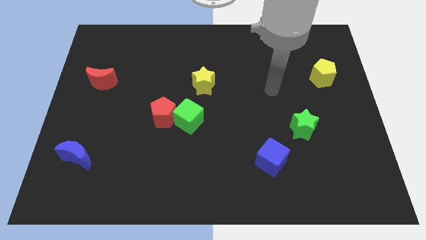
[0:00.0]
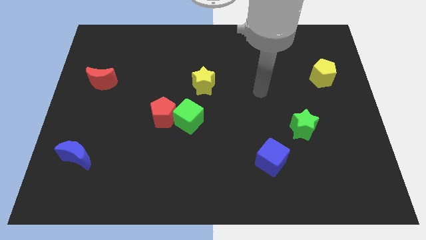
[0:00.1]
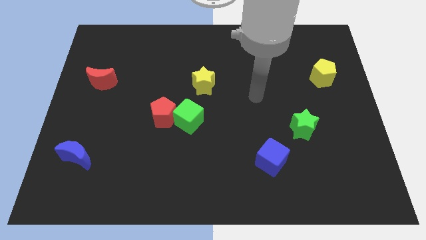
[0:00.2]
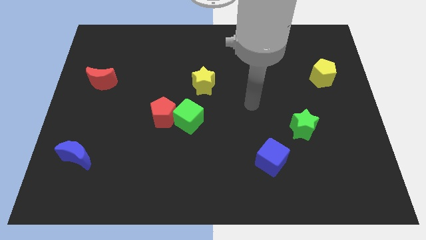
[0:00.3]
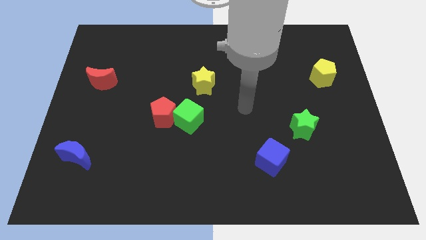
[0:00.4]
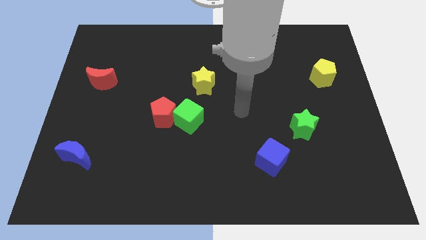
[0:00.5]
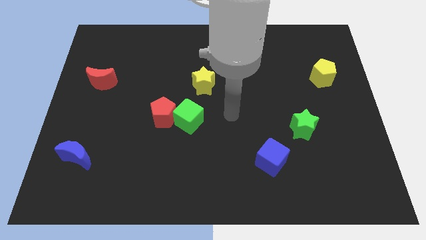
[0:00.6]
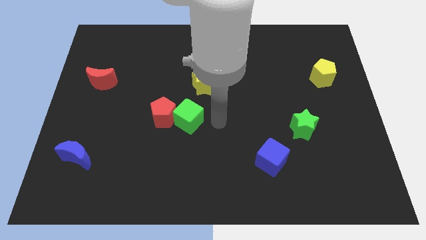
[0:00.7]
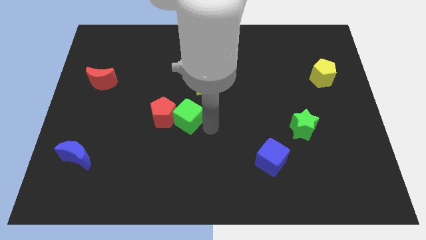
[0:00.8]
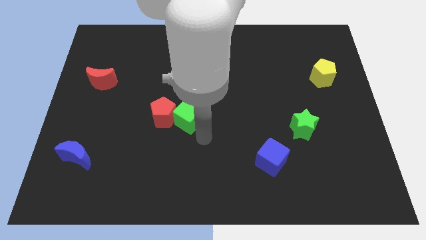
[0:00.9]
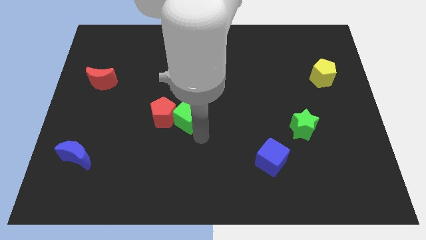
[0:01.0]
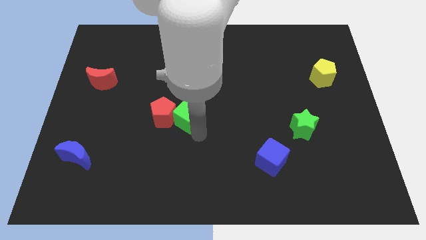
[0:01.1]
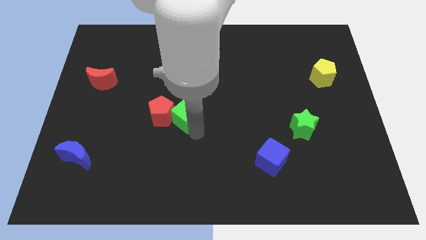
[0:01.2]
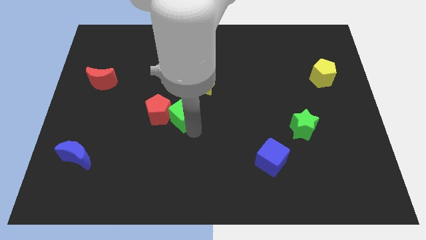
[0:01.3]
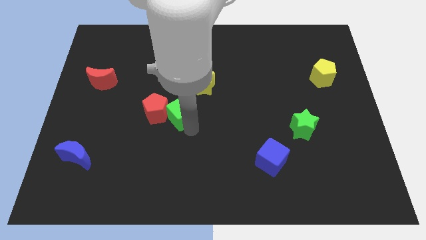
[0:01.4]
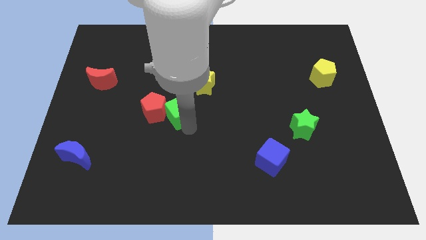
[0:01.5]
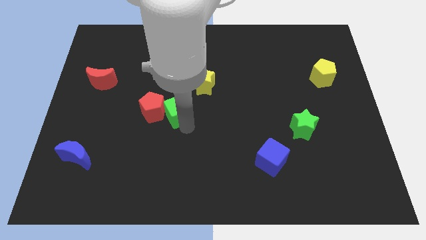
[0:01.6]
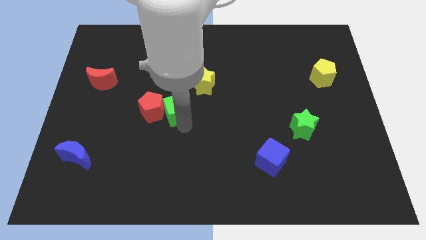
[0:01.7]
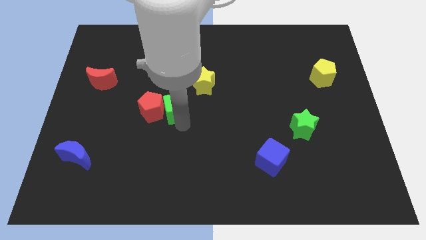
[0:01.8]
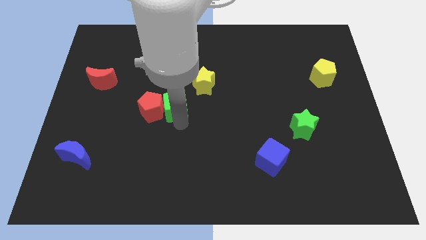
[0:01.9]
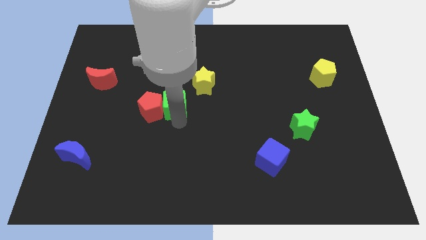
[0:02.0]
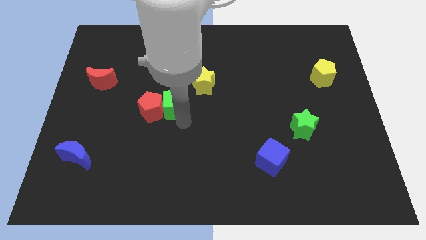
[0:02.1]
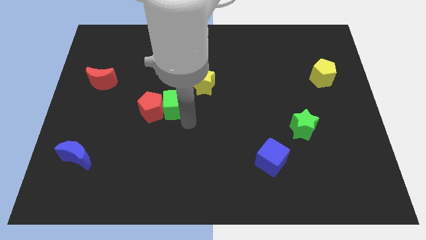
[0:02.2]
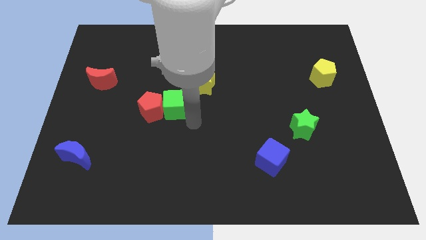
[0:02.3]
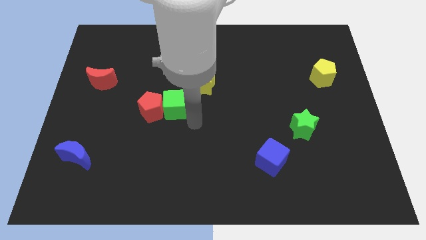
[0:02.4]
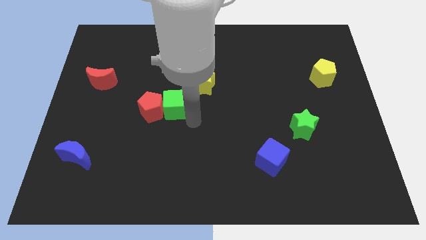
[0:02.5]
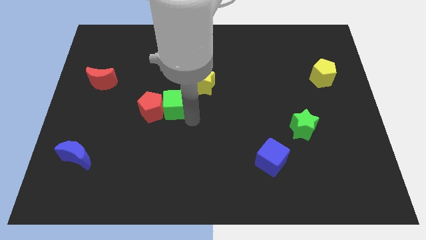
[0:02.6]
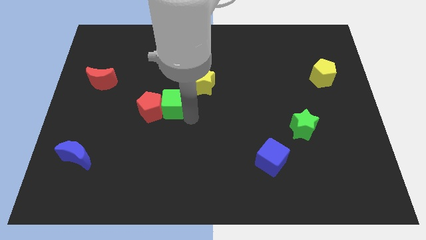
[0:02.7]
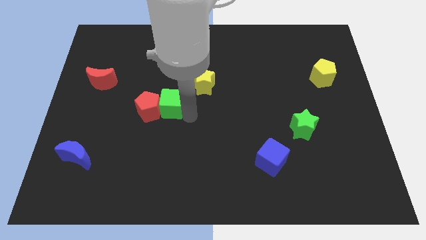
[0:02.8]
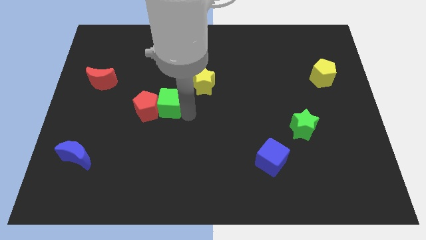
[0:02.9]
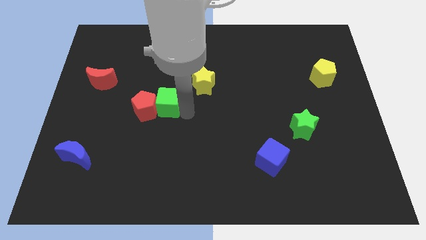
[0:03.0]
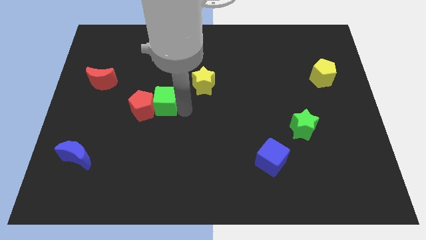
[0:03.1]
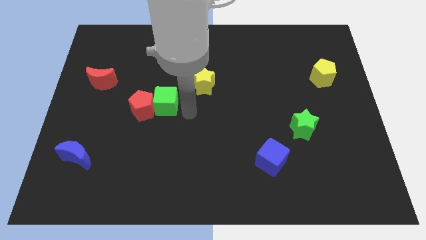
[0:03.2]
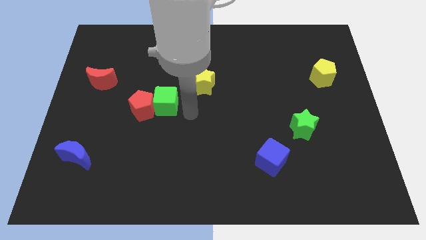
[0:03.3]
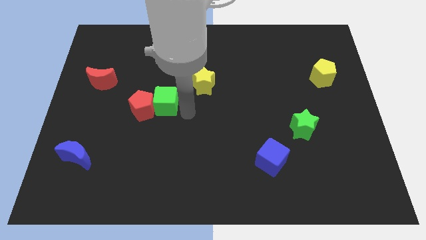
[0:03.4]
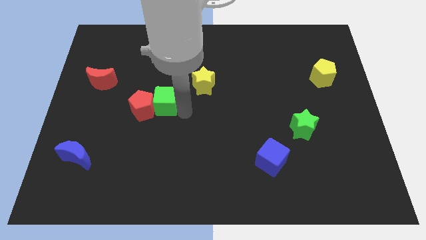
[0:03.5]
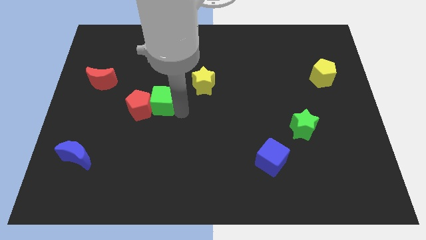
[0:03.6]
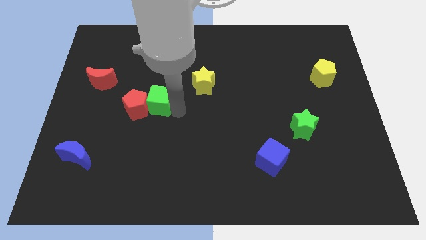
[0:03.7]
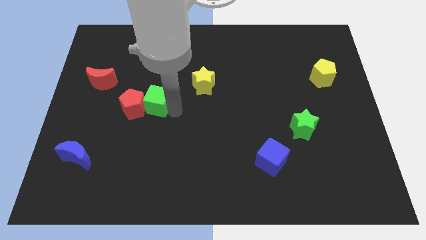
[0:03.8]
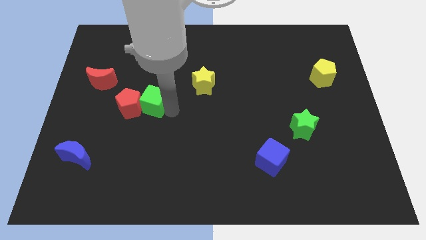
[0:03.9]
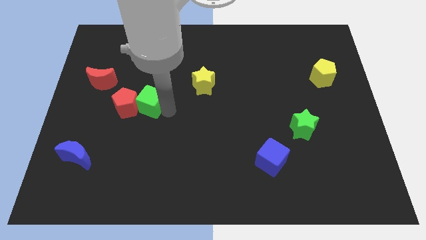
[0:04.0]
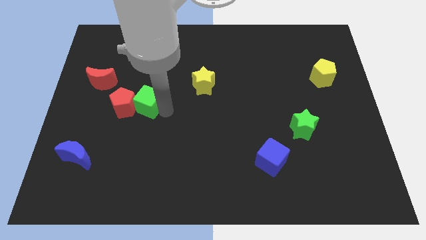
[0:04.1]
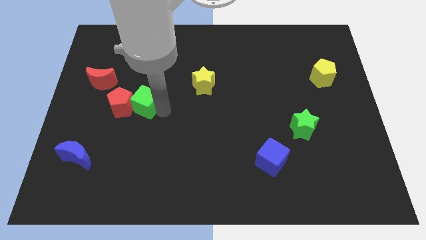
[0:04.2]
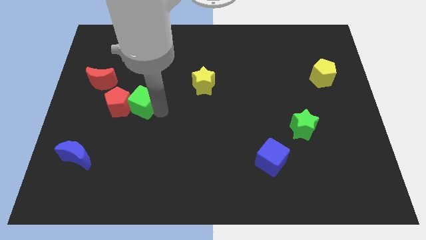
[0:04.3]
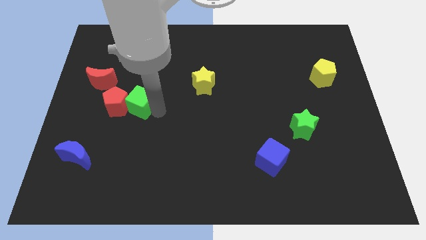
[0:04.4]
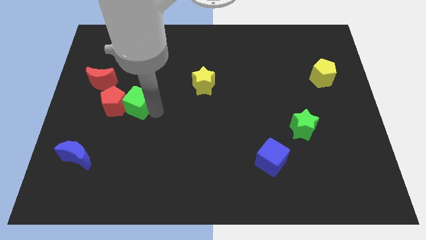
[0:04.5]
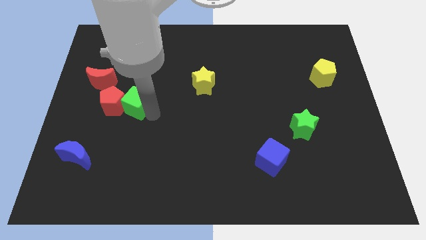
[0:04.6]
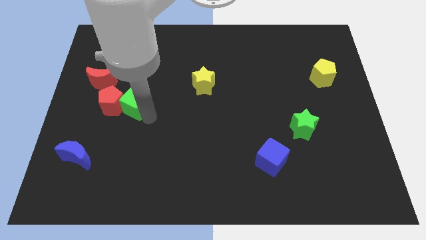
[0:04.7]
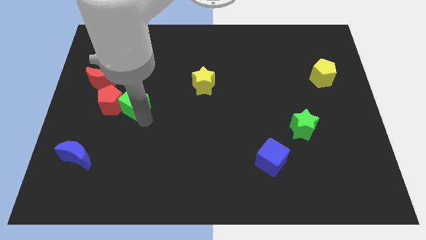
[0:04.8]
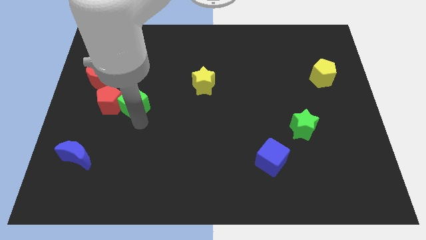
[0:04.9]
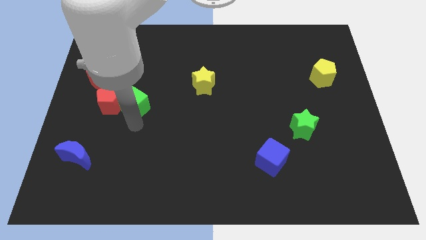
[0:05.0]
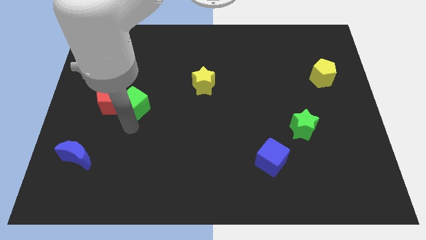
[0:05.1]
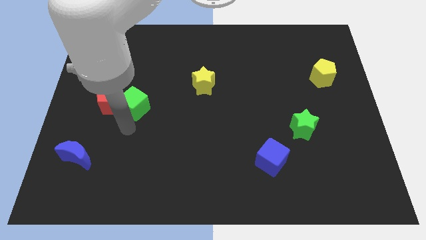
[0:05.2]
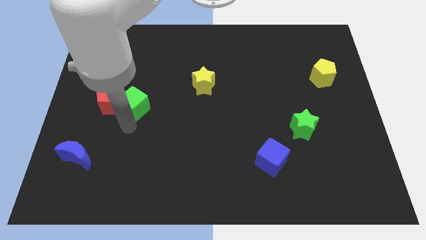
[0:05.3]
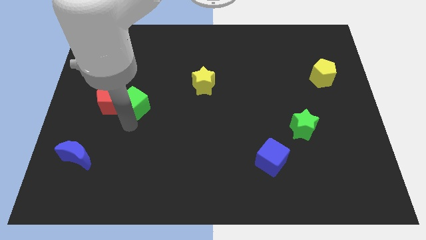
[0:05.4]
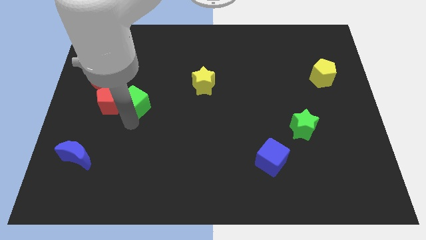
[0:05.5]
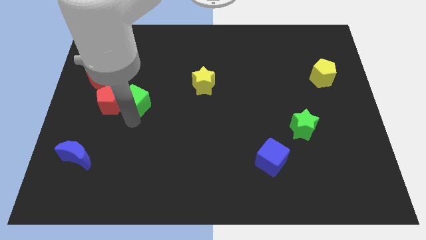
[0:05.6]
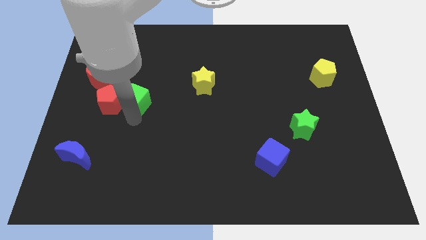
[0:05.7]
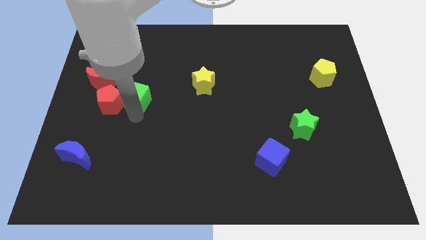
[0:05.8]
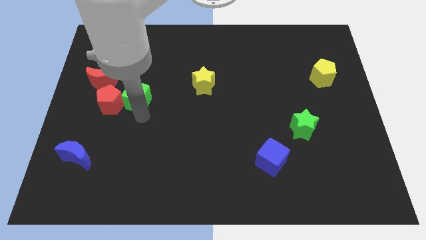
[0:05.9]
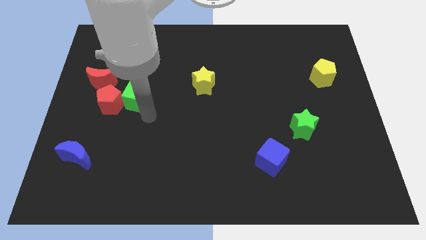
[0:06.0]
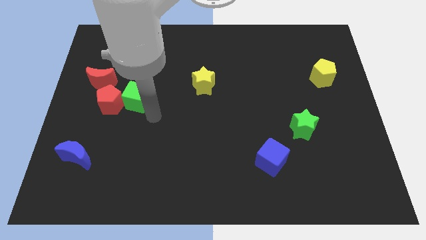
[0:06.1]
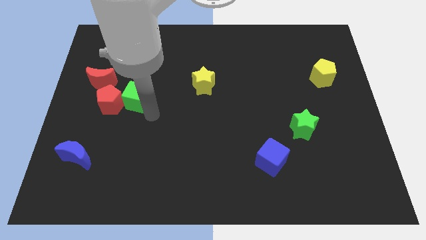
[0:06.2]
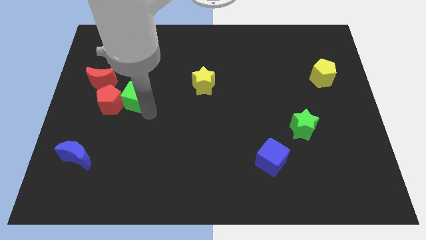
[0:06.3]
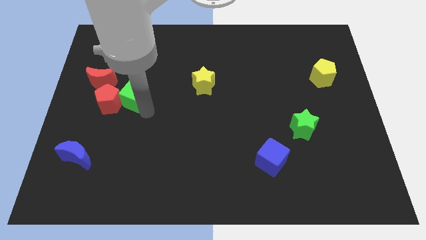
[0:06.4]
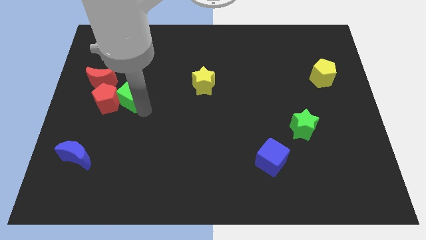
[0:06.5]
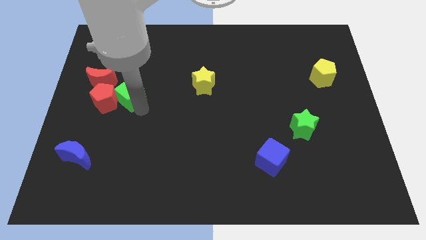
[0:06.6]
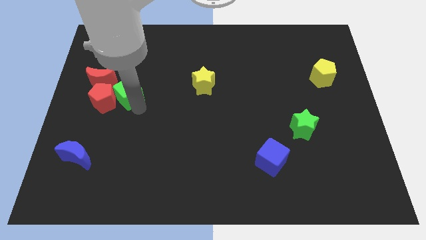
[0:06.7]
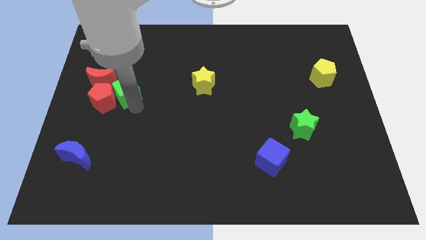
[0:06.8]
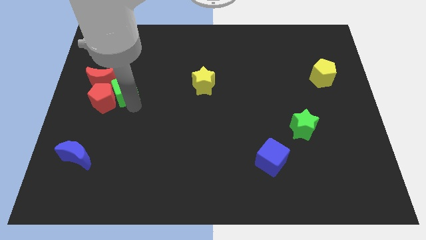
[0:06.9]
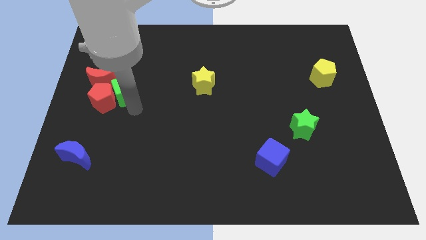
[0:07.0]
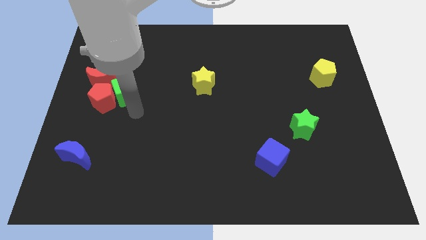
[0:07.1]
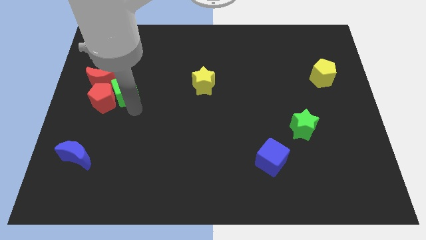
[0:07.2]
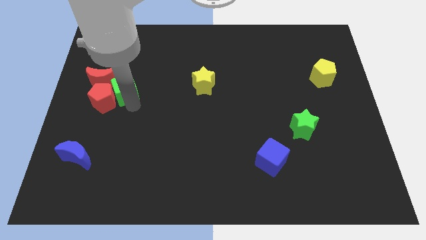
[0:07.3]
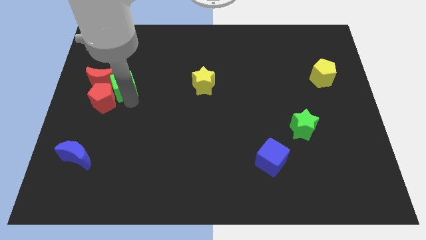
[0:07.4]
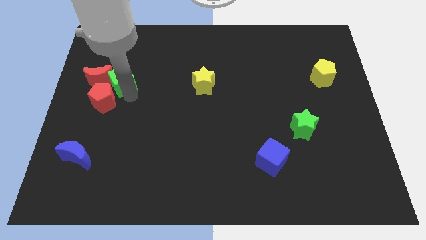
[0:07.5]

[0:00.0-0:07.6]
slide the green cube next to the red moon

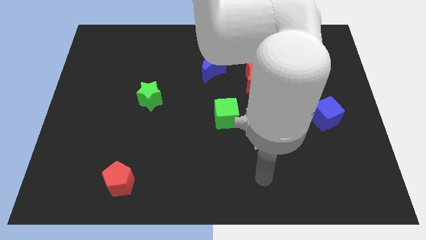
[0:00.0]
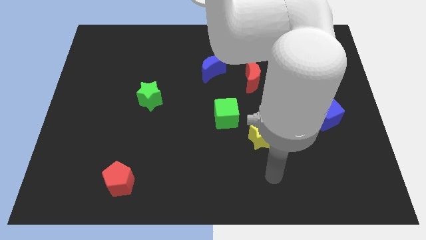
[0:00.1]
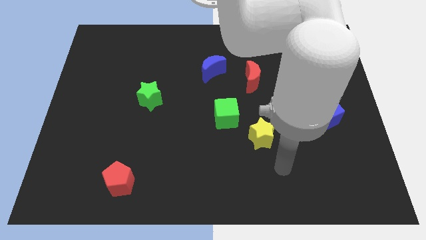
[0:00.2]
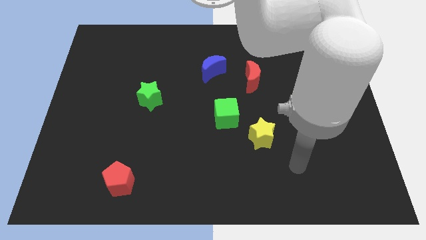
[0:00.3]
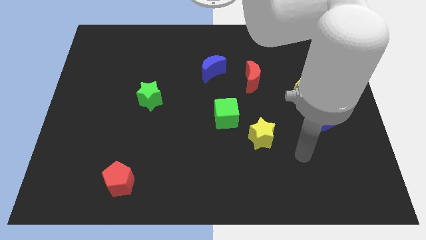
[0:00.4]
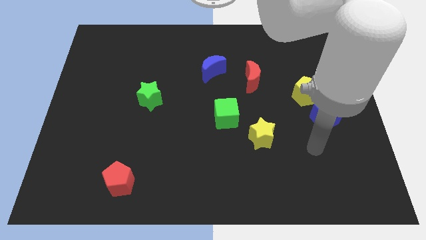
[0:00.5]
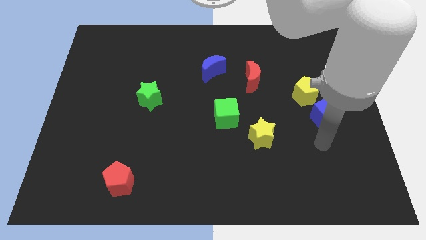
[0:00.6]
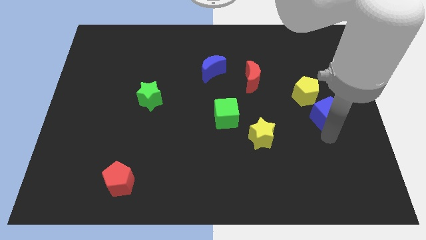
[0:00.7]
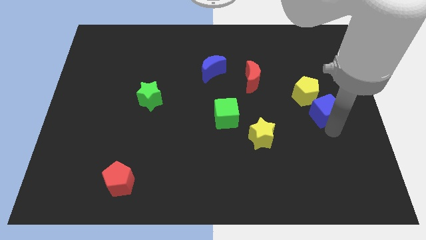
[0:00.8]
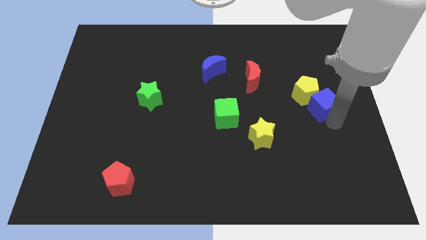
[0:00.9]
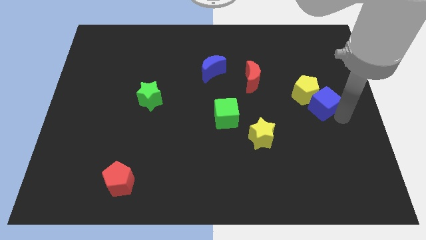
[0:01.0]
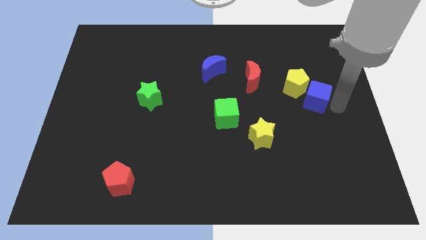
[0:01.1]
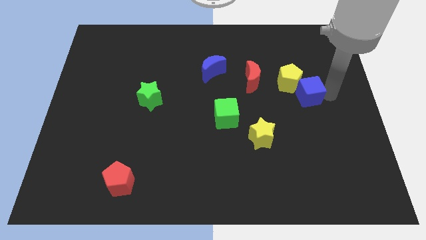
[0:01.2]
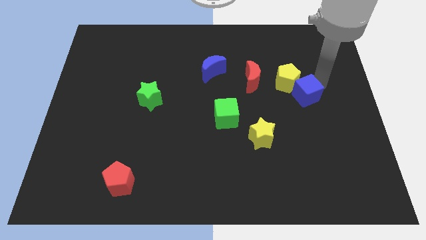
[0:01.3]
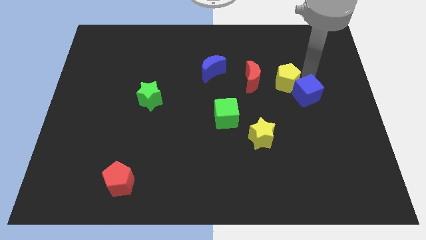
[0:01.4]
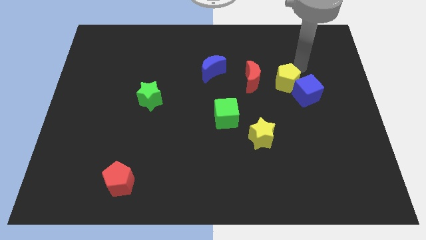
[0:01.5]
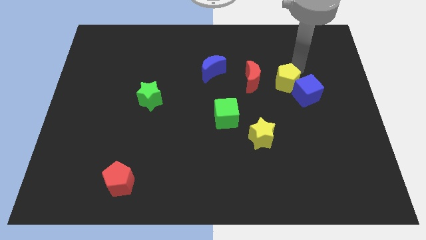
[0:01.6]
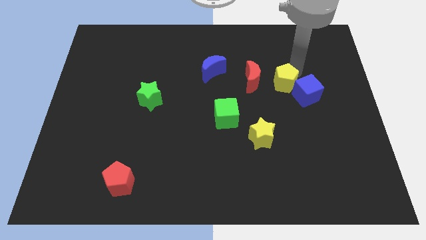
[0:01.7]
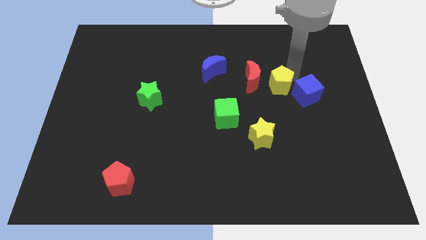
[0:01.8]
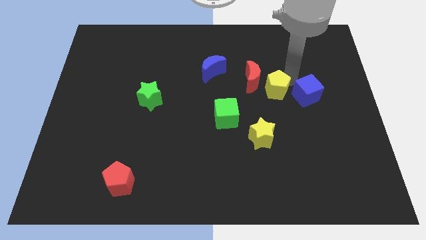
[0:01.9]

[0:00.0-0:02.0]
put the yellow pentagon next to the red moon
